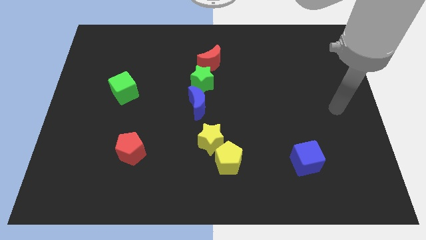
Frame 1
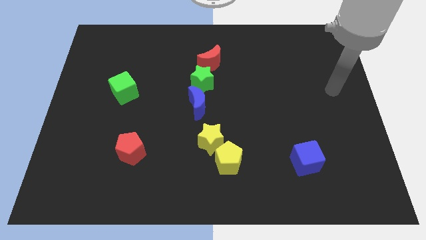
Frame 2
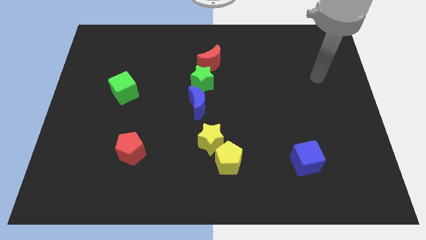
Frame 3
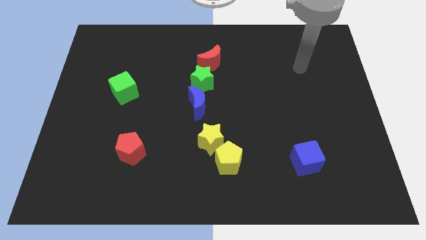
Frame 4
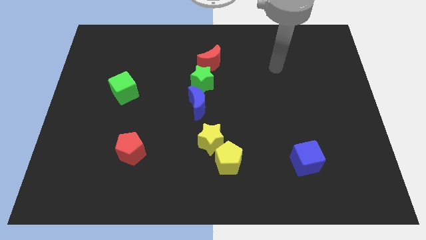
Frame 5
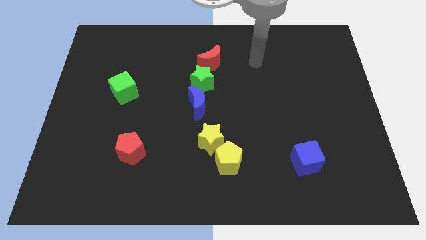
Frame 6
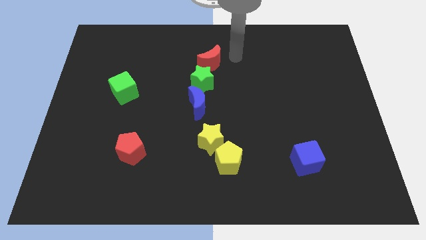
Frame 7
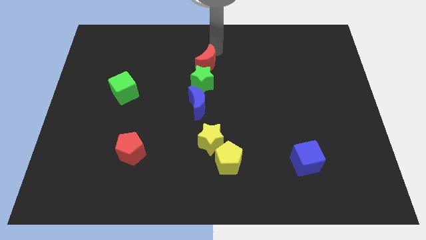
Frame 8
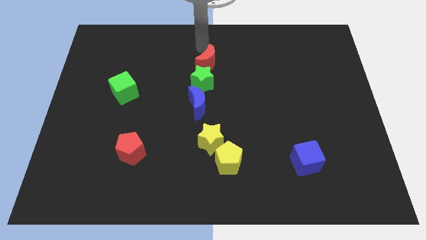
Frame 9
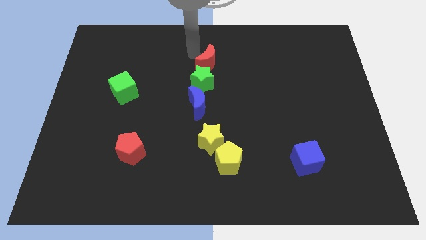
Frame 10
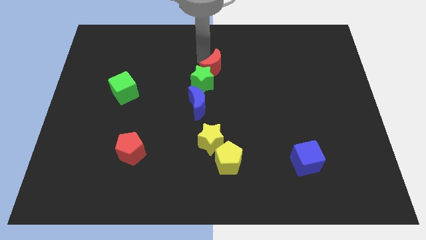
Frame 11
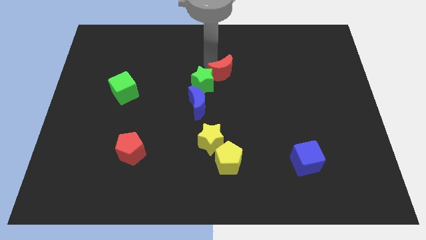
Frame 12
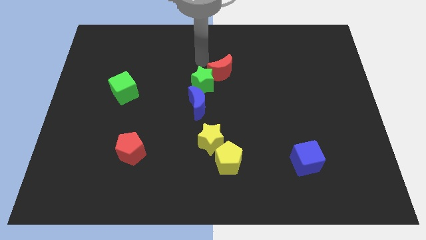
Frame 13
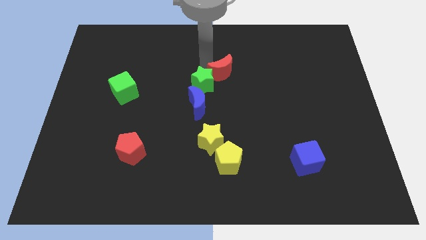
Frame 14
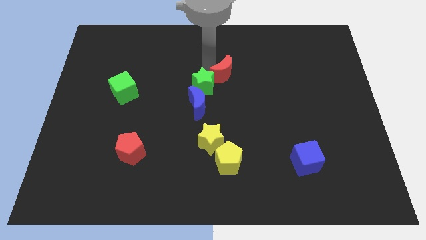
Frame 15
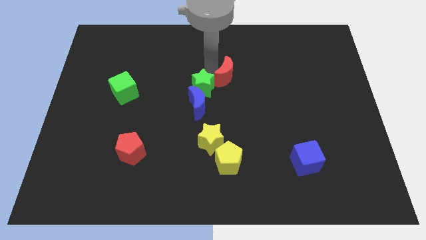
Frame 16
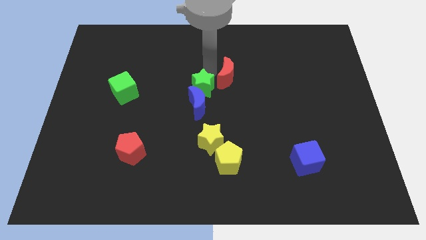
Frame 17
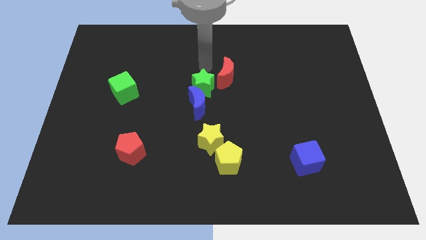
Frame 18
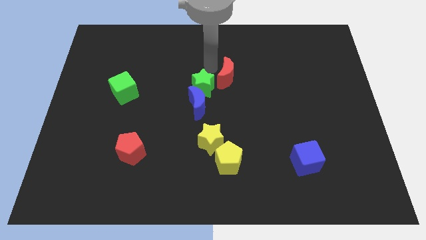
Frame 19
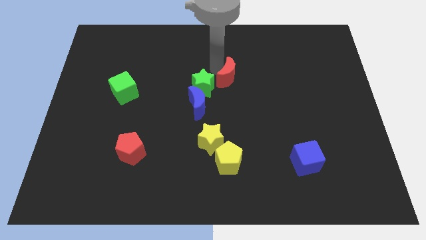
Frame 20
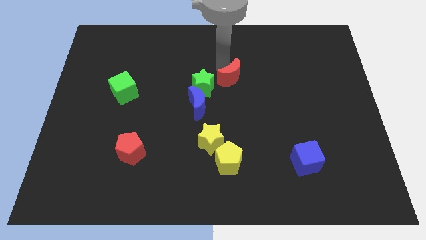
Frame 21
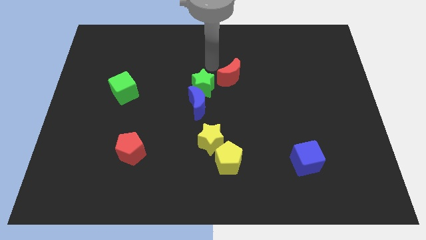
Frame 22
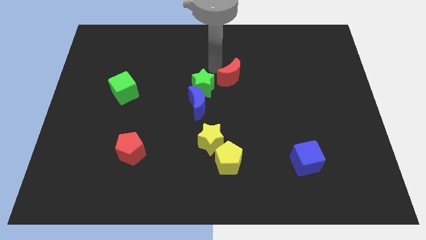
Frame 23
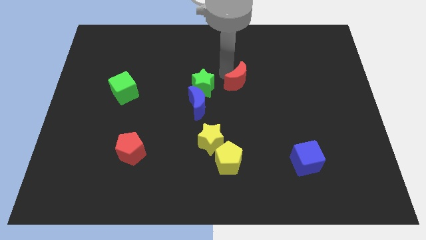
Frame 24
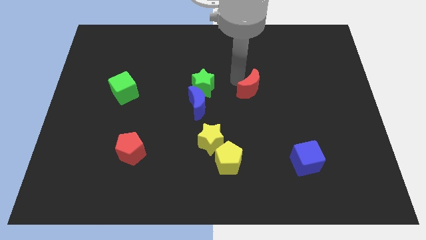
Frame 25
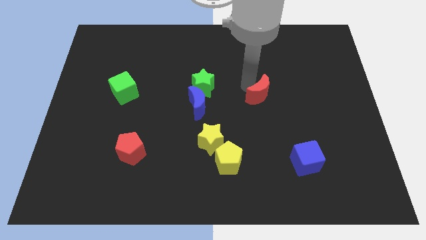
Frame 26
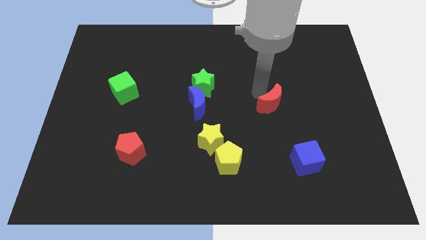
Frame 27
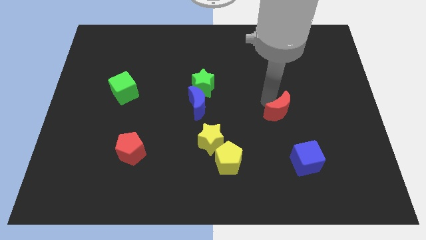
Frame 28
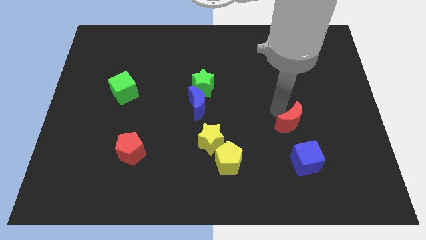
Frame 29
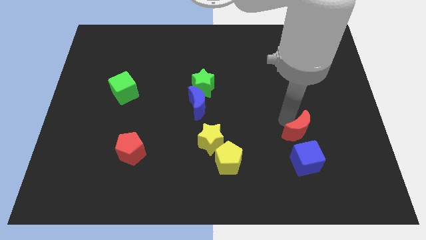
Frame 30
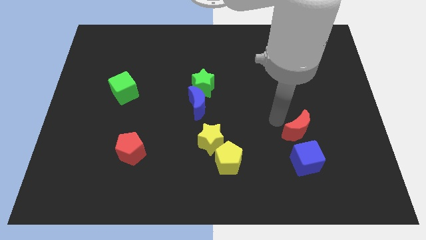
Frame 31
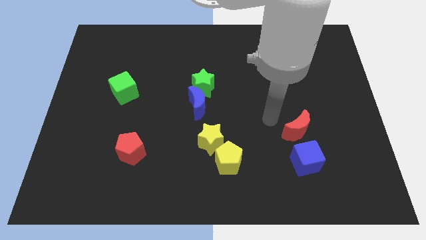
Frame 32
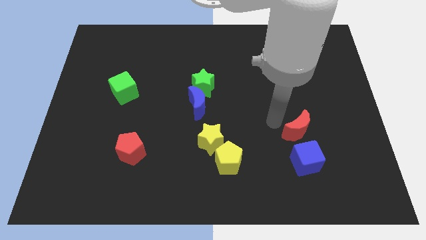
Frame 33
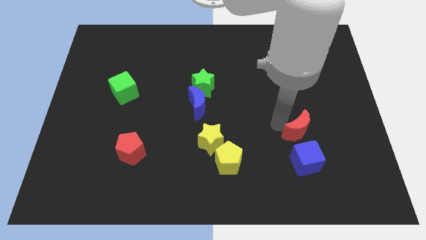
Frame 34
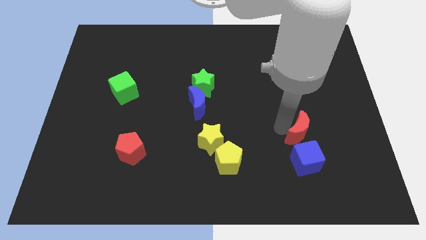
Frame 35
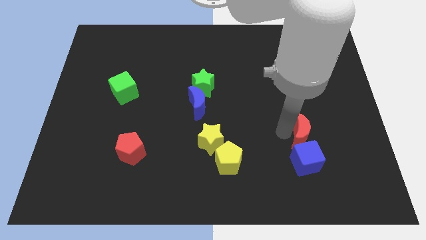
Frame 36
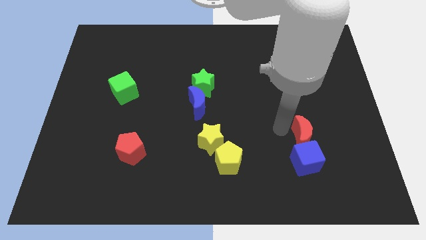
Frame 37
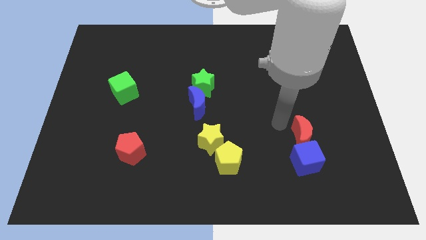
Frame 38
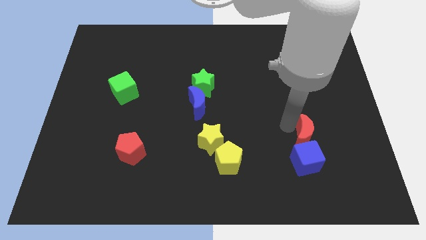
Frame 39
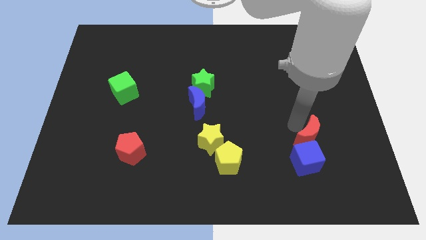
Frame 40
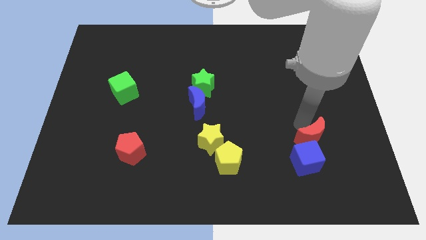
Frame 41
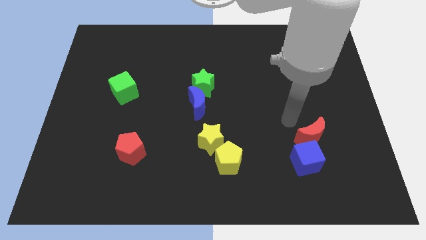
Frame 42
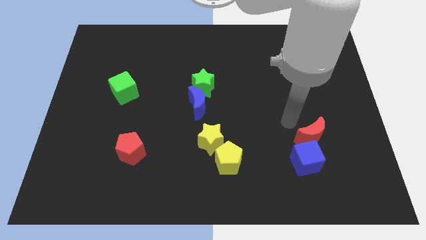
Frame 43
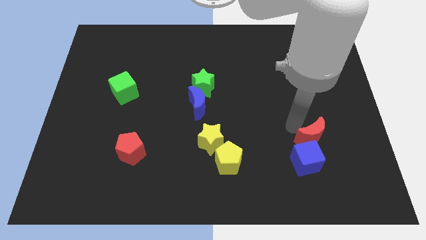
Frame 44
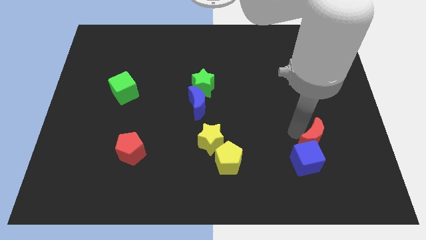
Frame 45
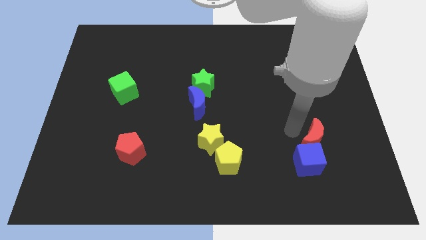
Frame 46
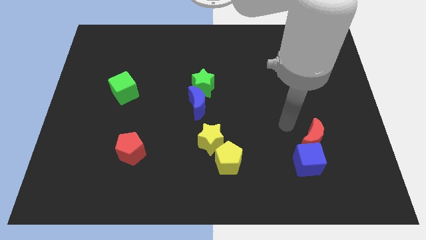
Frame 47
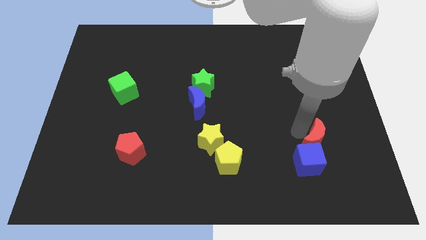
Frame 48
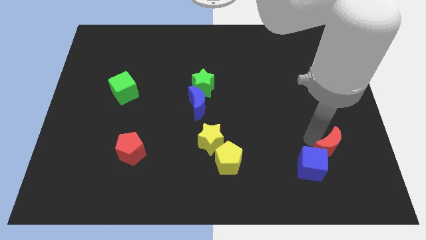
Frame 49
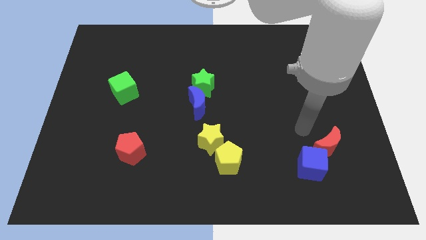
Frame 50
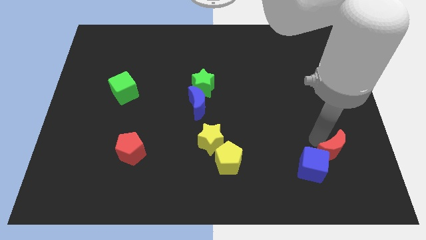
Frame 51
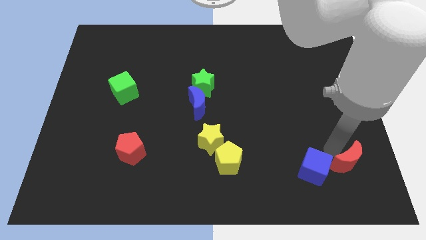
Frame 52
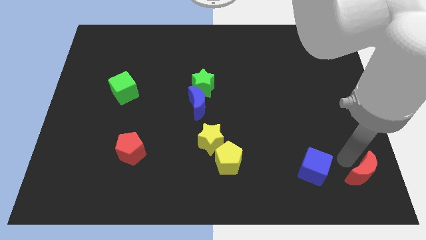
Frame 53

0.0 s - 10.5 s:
put the red moon to the lower right corner
